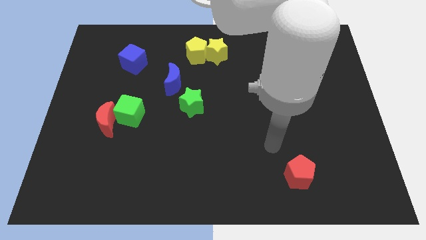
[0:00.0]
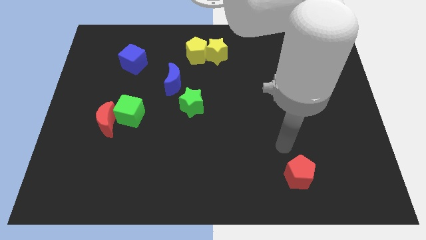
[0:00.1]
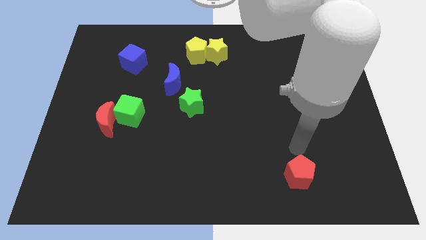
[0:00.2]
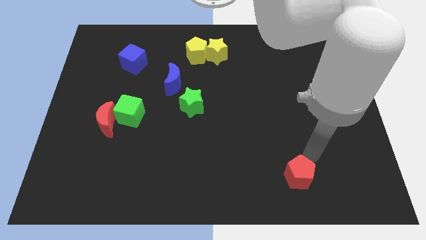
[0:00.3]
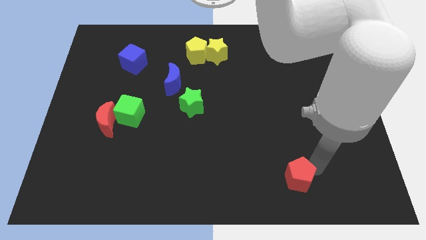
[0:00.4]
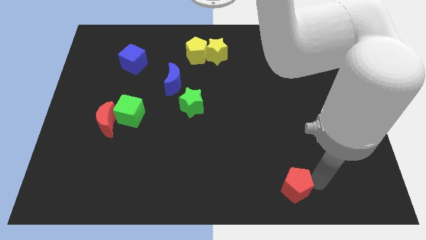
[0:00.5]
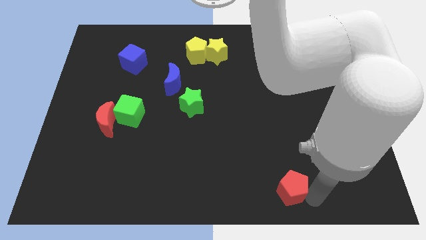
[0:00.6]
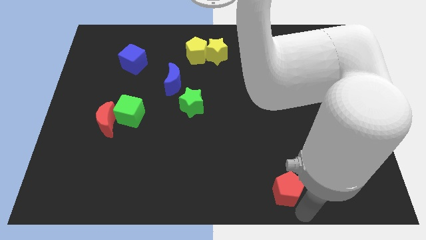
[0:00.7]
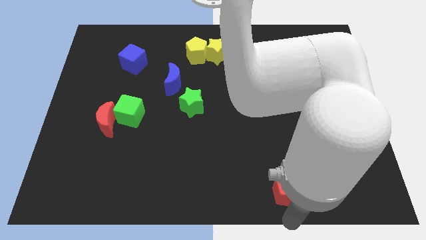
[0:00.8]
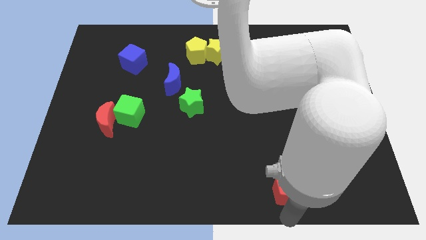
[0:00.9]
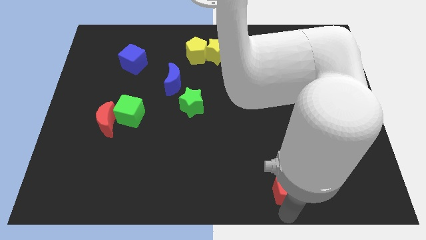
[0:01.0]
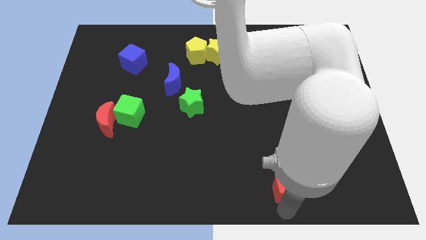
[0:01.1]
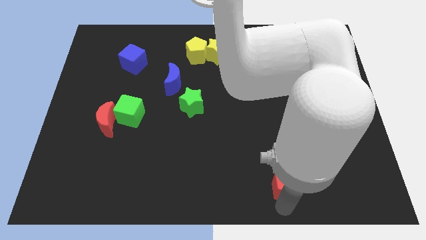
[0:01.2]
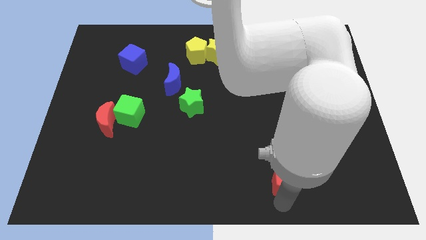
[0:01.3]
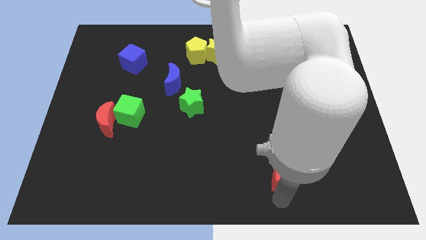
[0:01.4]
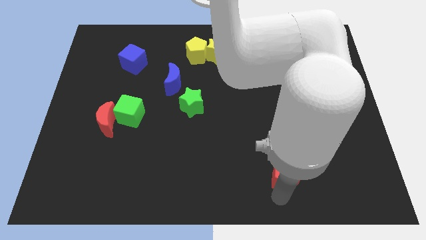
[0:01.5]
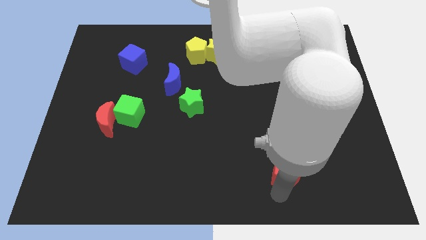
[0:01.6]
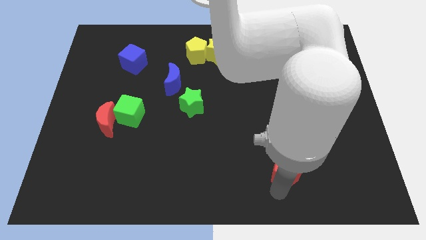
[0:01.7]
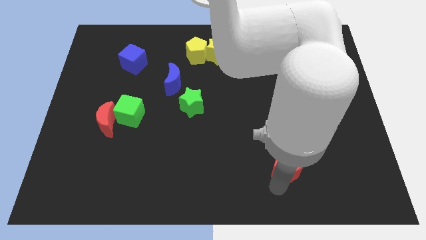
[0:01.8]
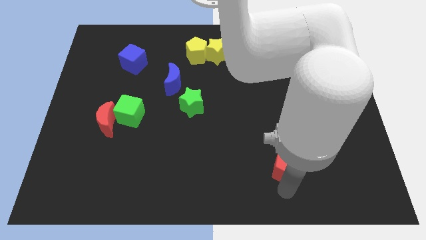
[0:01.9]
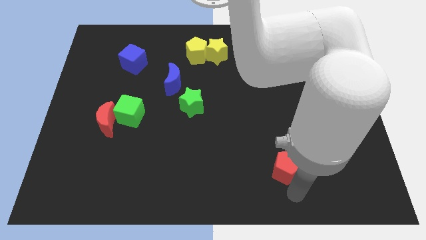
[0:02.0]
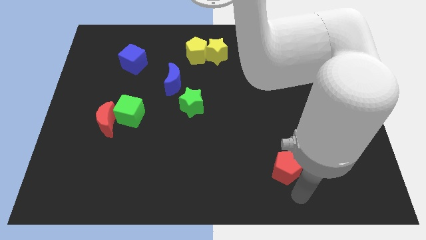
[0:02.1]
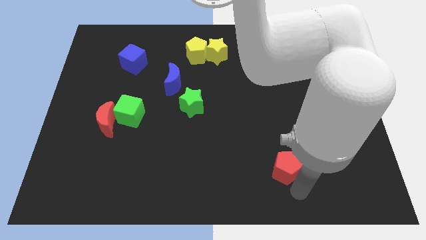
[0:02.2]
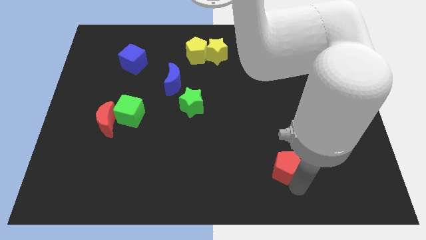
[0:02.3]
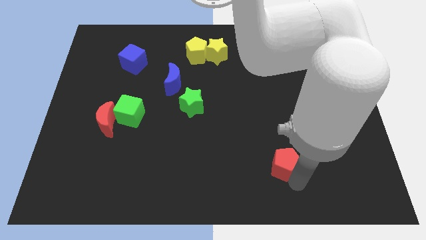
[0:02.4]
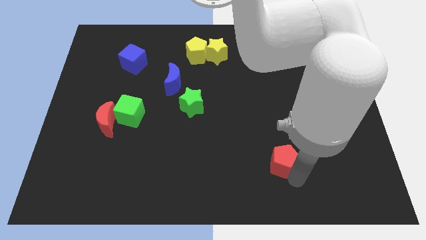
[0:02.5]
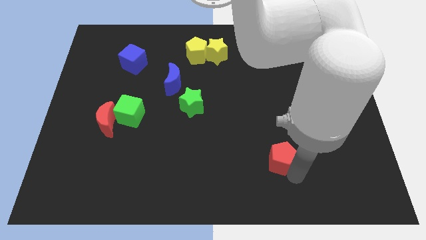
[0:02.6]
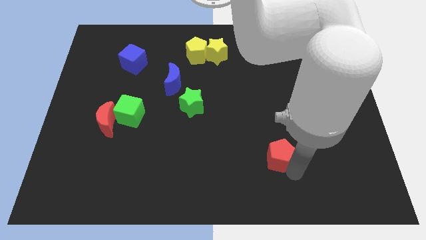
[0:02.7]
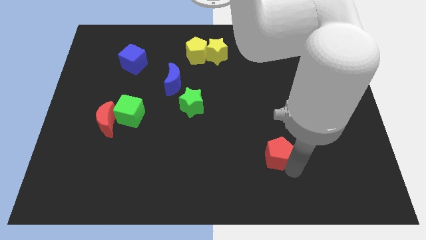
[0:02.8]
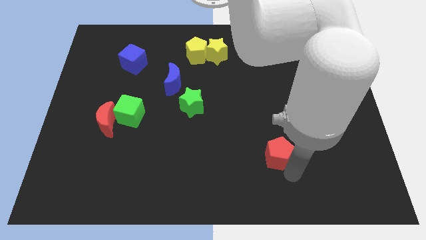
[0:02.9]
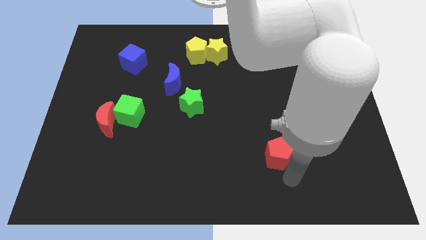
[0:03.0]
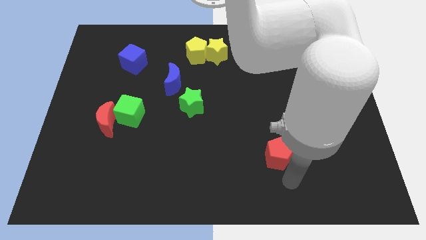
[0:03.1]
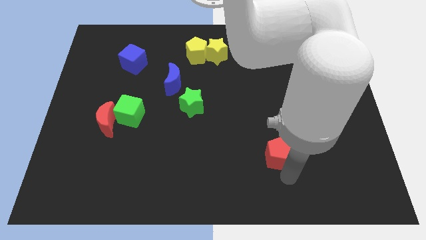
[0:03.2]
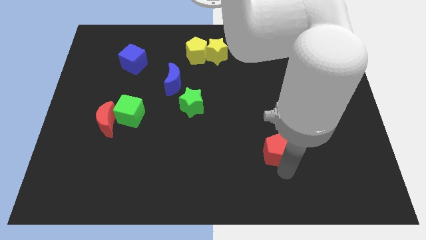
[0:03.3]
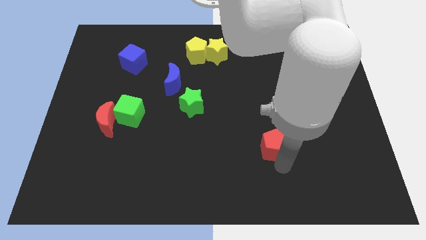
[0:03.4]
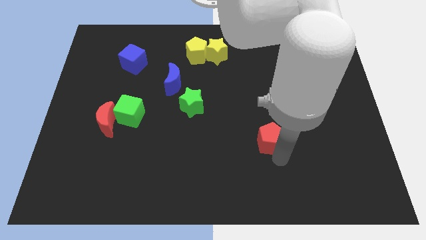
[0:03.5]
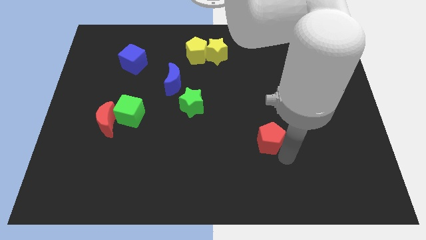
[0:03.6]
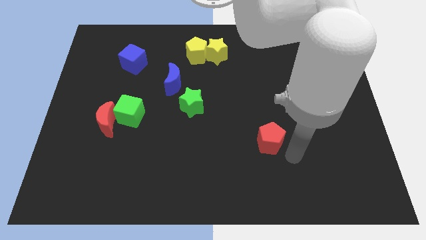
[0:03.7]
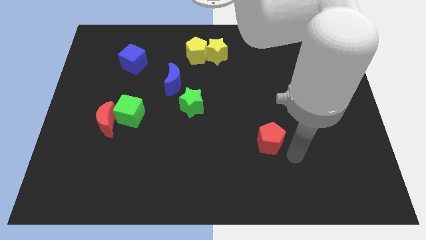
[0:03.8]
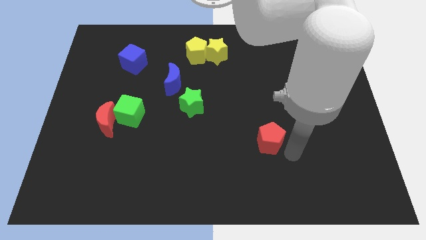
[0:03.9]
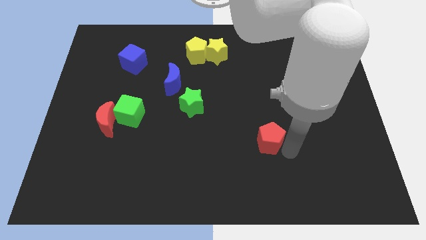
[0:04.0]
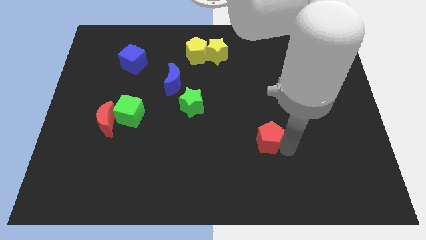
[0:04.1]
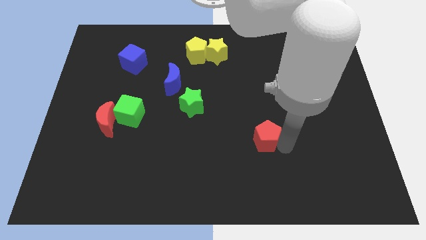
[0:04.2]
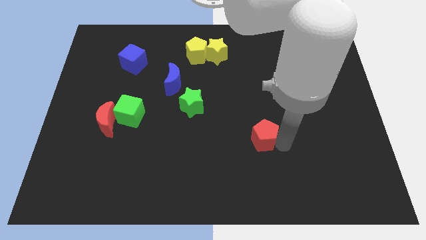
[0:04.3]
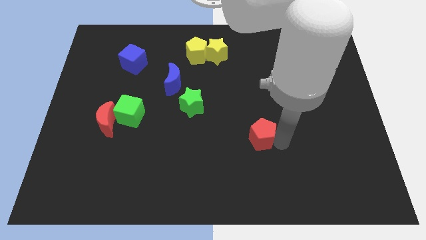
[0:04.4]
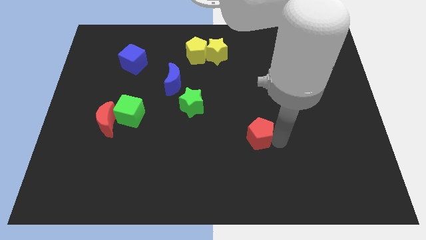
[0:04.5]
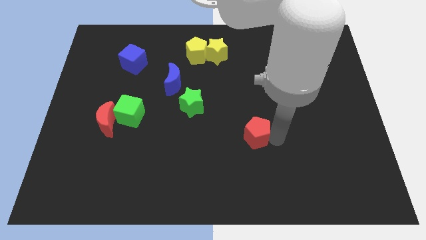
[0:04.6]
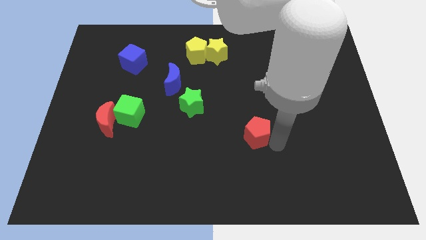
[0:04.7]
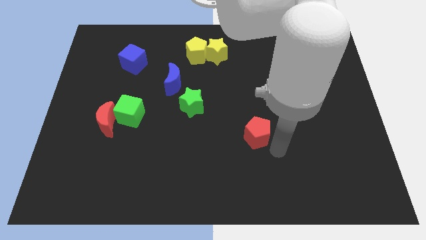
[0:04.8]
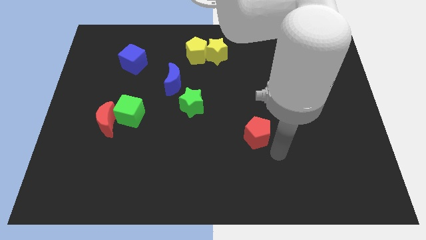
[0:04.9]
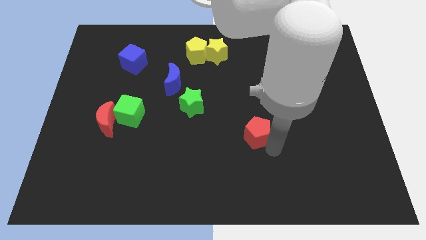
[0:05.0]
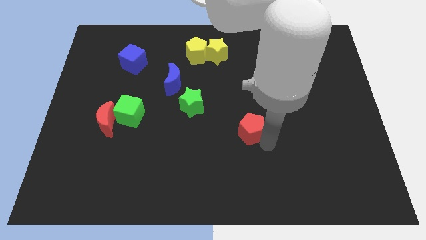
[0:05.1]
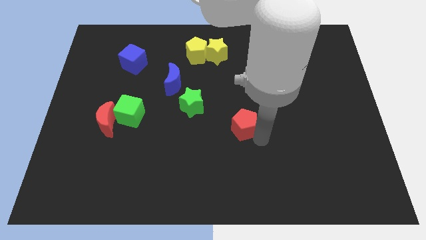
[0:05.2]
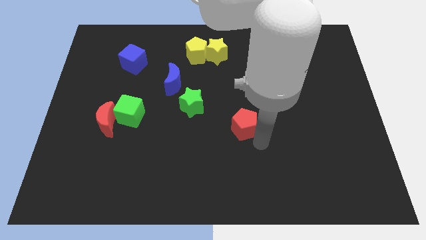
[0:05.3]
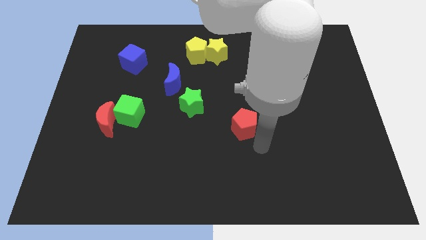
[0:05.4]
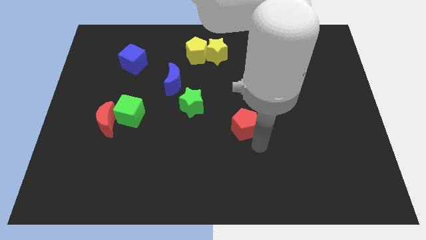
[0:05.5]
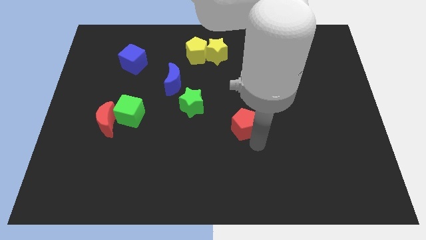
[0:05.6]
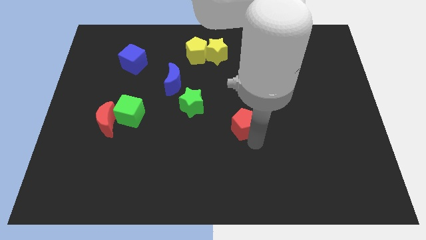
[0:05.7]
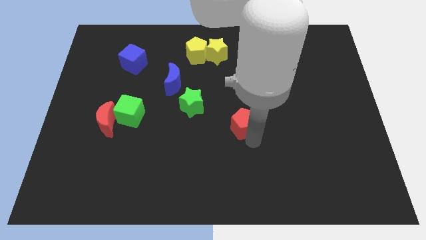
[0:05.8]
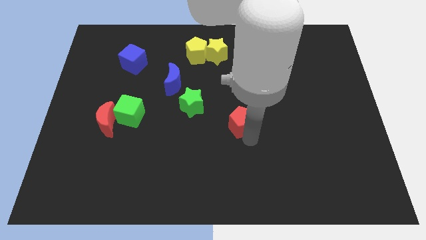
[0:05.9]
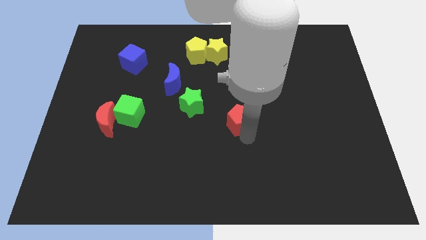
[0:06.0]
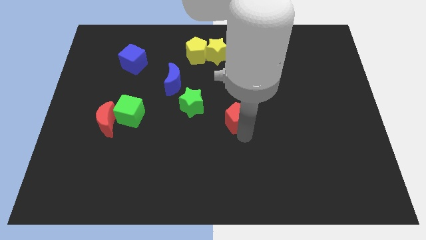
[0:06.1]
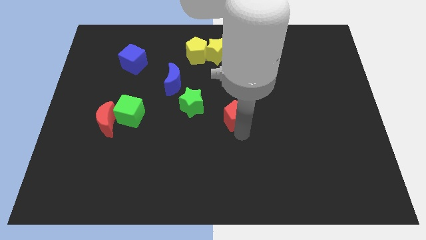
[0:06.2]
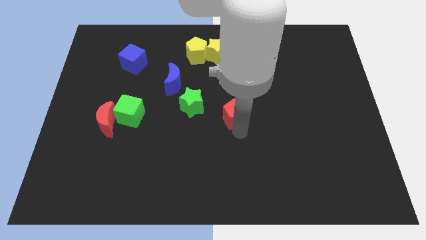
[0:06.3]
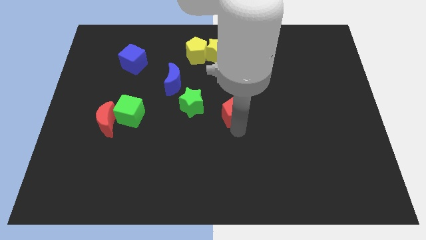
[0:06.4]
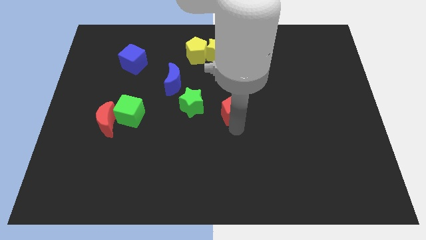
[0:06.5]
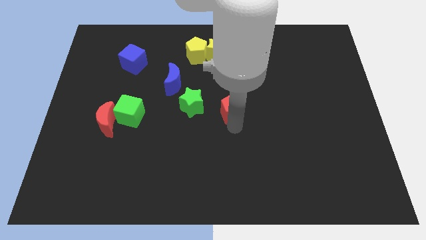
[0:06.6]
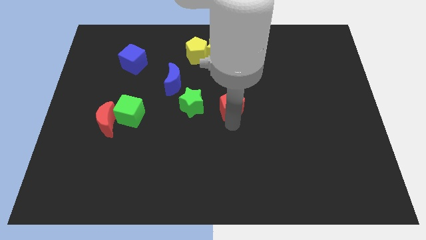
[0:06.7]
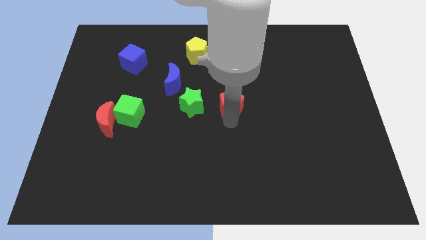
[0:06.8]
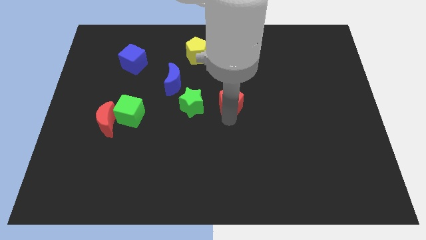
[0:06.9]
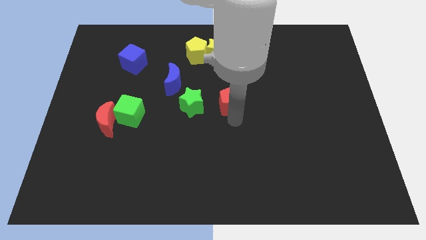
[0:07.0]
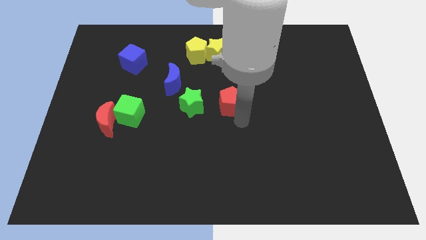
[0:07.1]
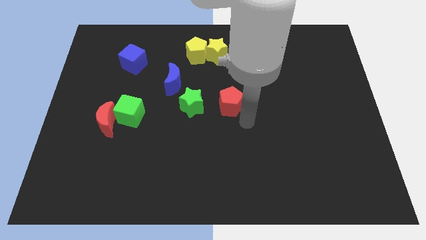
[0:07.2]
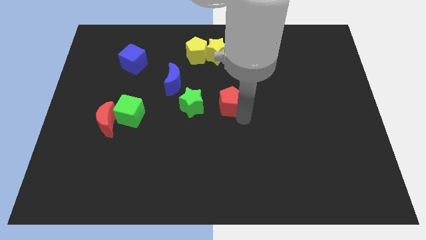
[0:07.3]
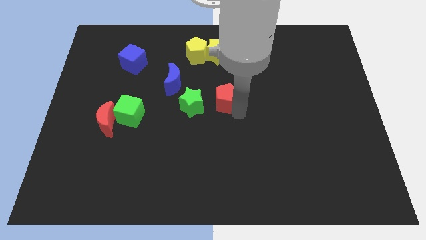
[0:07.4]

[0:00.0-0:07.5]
push the red pentagon to the top right side of the green star
